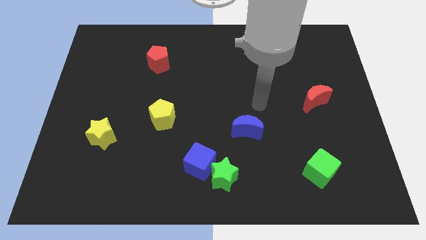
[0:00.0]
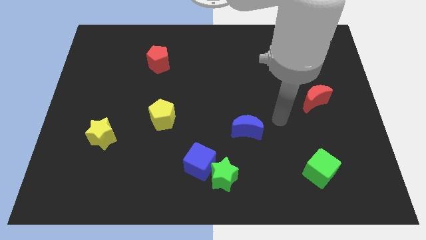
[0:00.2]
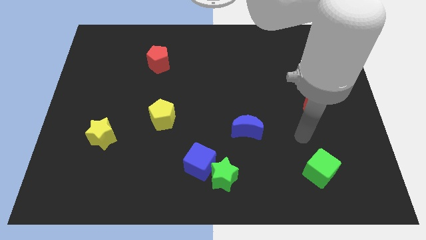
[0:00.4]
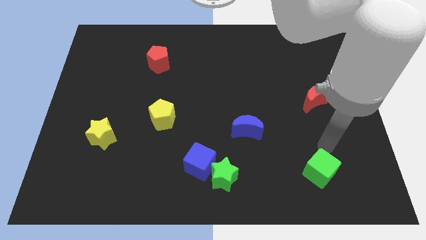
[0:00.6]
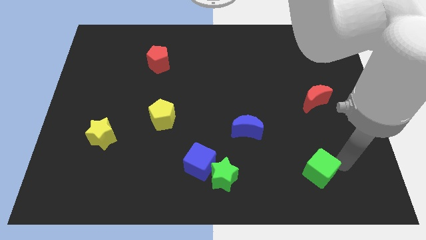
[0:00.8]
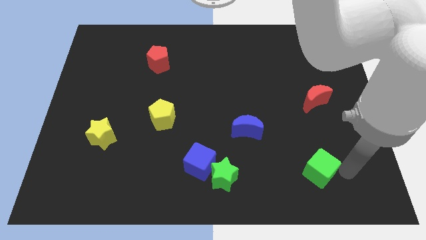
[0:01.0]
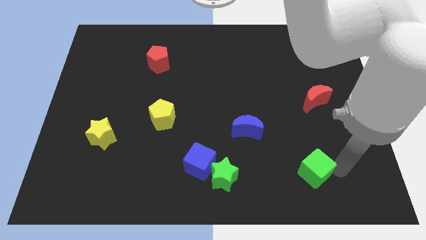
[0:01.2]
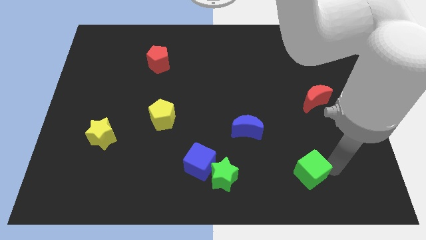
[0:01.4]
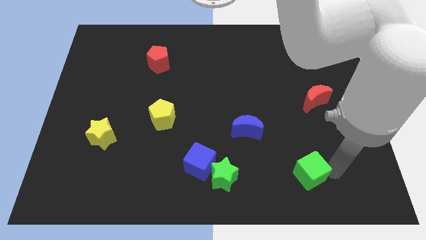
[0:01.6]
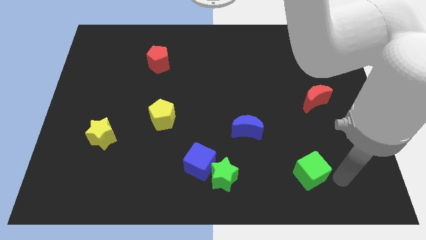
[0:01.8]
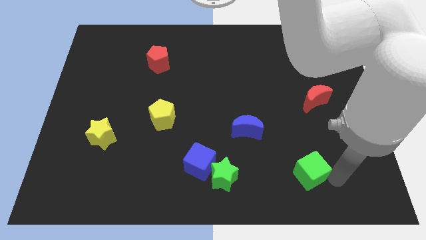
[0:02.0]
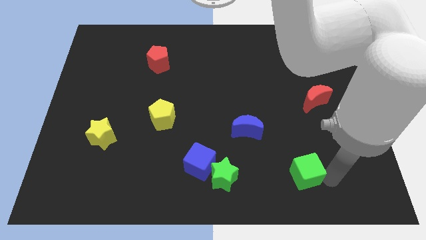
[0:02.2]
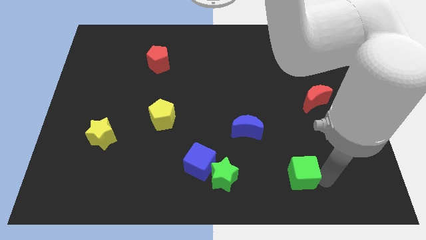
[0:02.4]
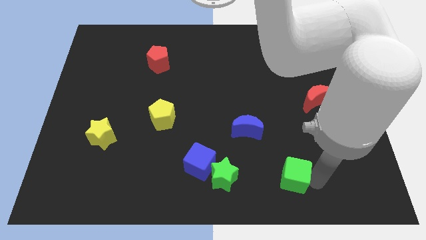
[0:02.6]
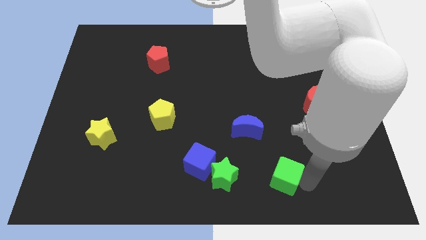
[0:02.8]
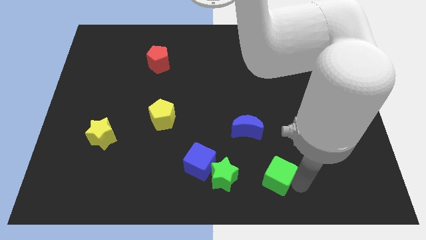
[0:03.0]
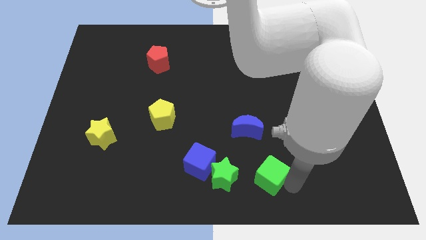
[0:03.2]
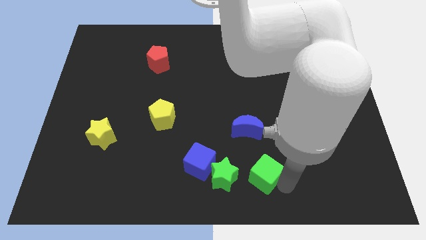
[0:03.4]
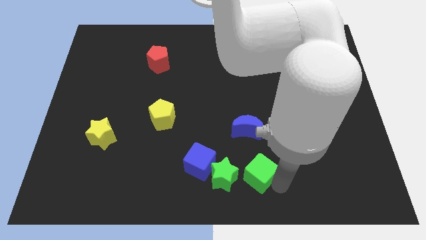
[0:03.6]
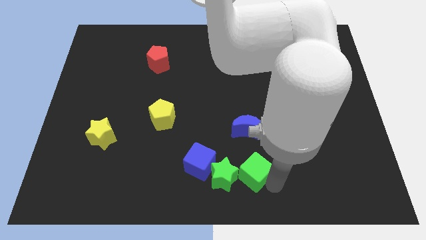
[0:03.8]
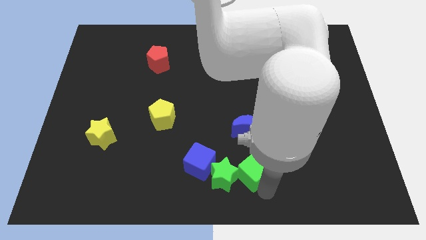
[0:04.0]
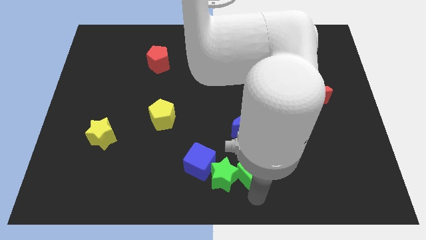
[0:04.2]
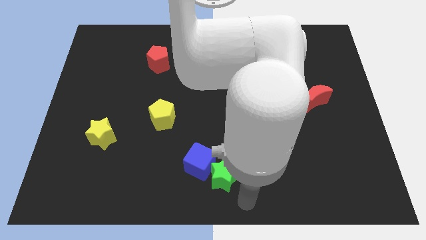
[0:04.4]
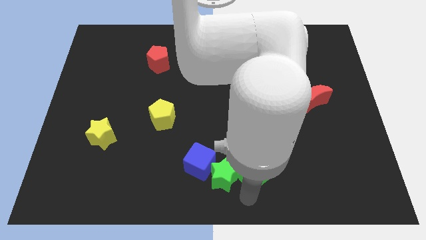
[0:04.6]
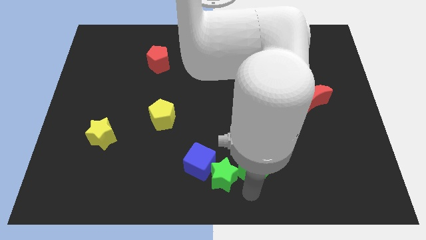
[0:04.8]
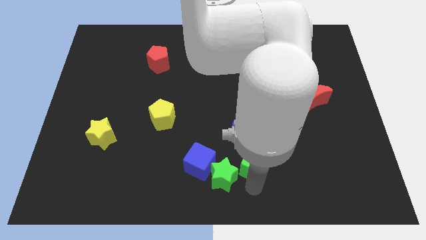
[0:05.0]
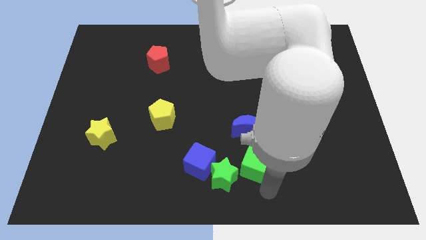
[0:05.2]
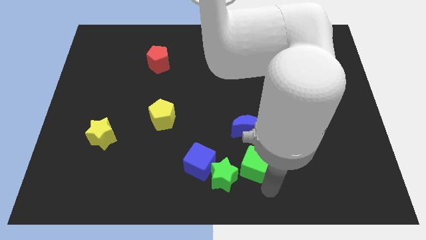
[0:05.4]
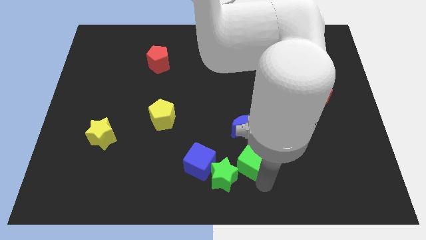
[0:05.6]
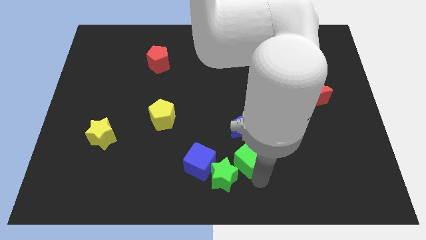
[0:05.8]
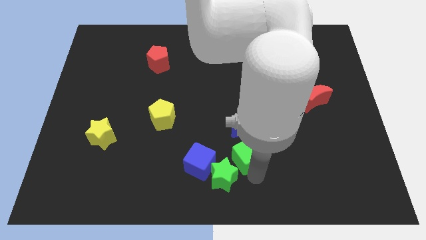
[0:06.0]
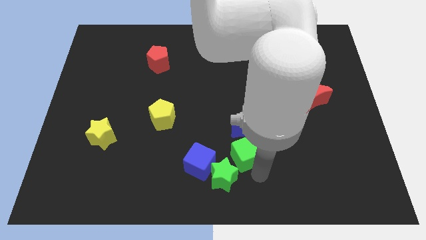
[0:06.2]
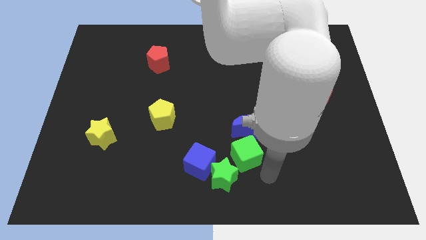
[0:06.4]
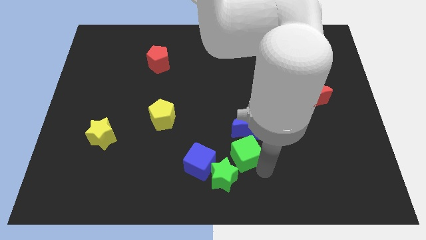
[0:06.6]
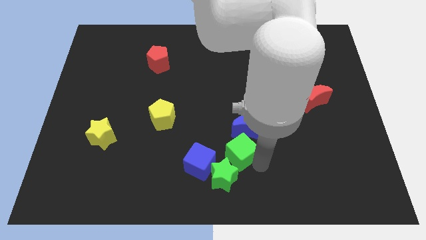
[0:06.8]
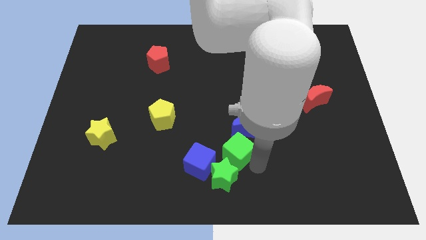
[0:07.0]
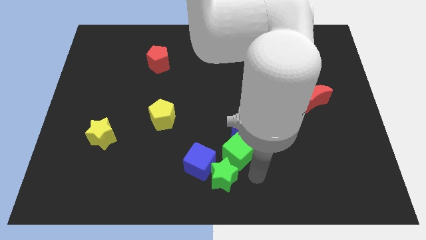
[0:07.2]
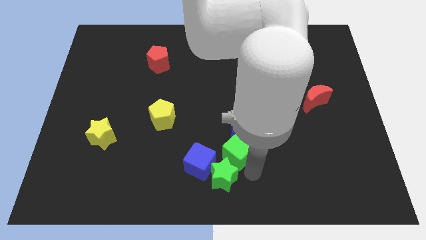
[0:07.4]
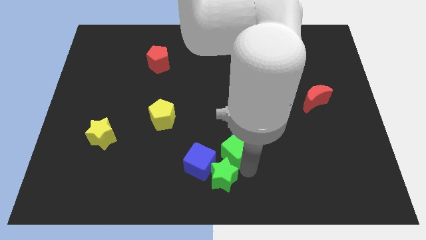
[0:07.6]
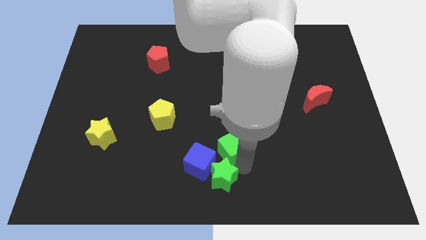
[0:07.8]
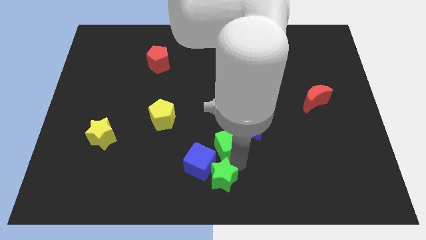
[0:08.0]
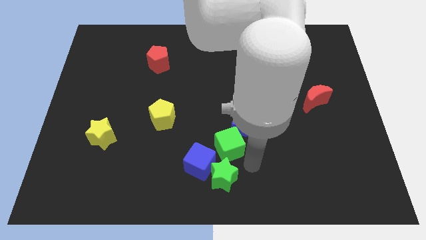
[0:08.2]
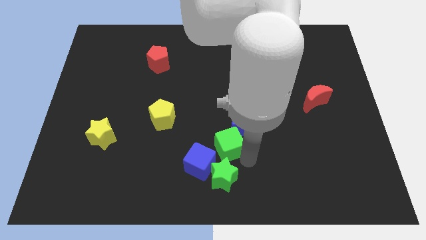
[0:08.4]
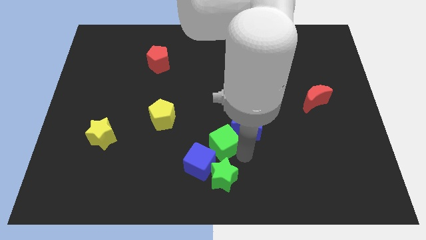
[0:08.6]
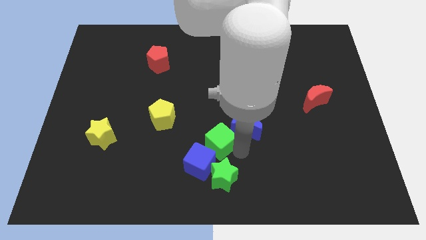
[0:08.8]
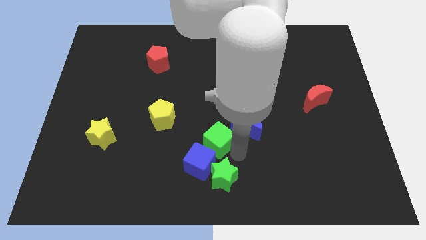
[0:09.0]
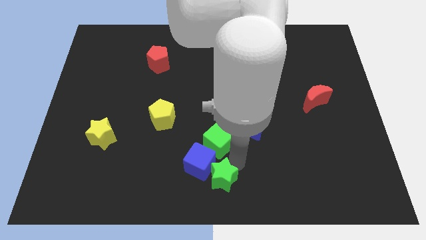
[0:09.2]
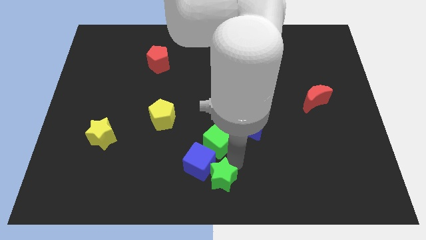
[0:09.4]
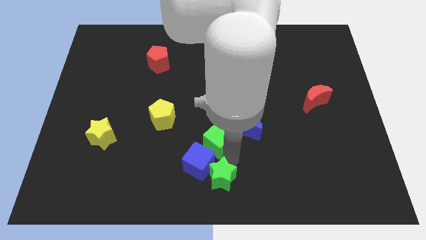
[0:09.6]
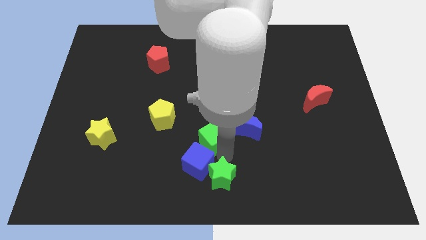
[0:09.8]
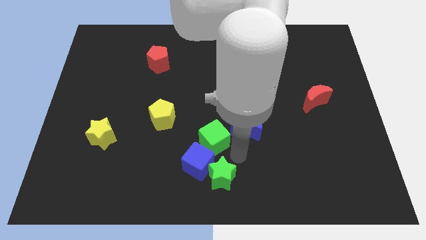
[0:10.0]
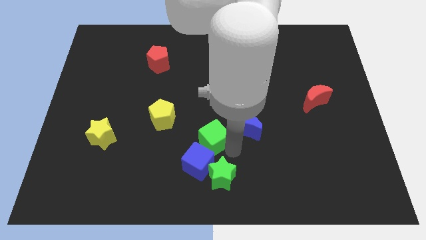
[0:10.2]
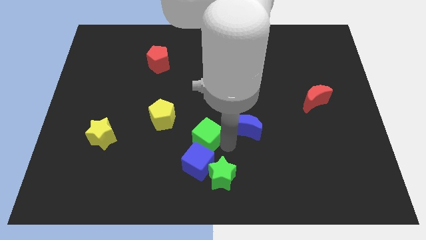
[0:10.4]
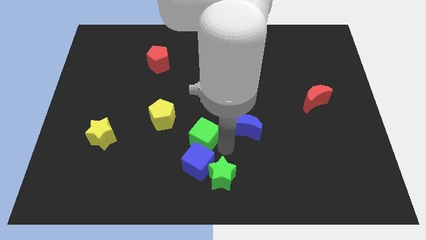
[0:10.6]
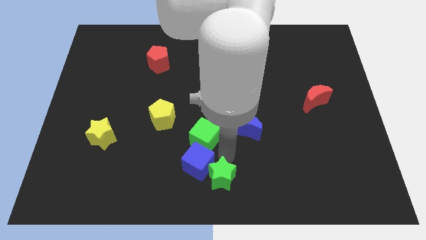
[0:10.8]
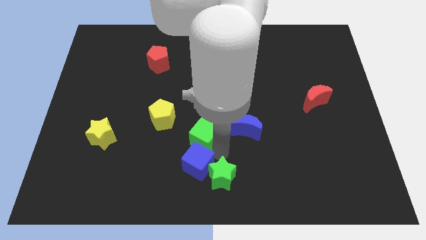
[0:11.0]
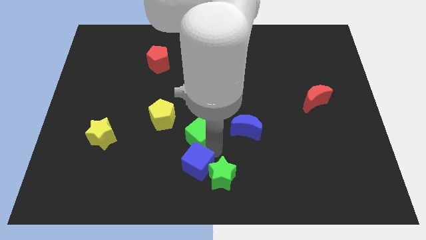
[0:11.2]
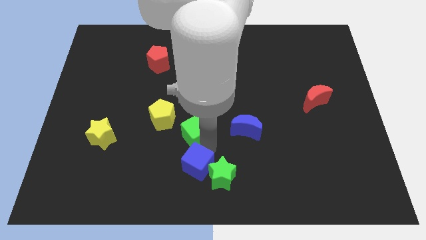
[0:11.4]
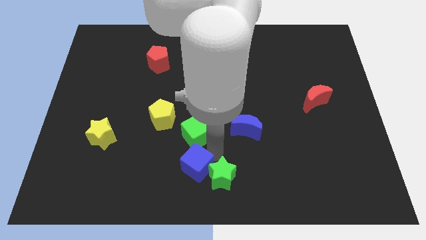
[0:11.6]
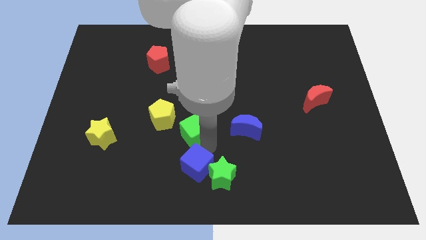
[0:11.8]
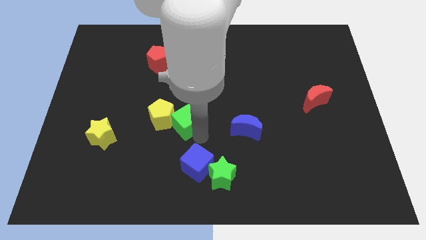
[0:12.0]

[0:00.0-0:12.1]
put the green cube next to the yellow pentagon
